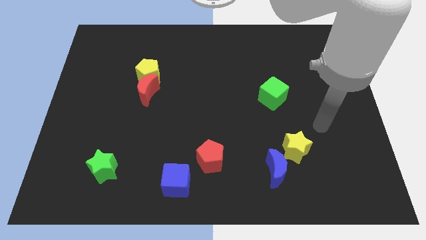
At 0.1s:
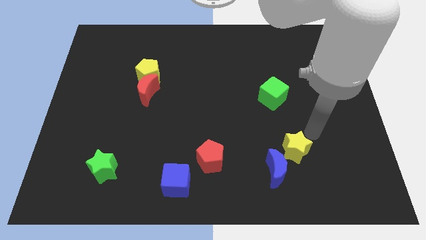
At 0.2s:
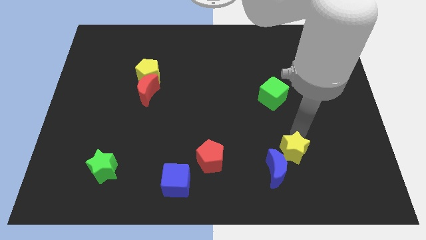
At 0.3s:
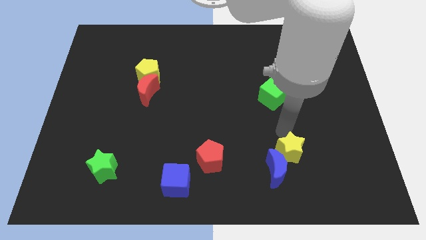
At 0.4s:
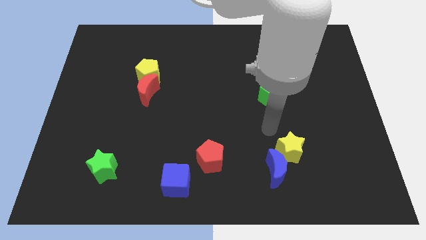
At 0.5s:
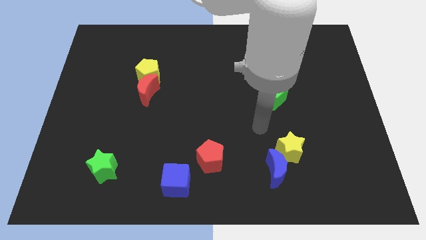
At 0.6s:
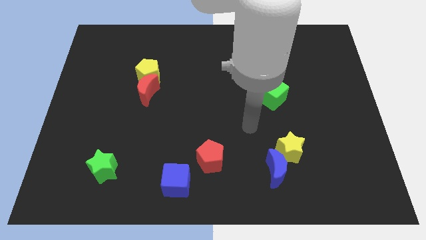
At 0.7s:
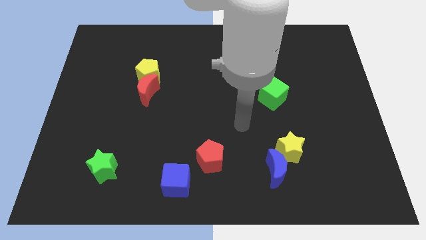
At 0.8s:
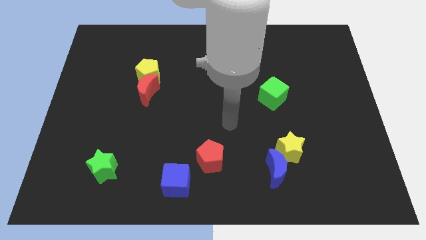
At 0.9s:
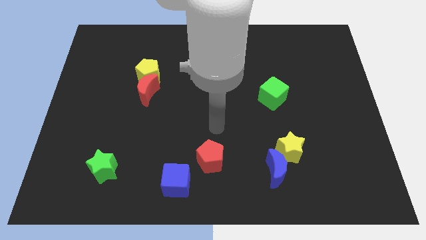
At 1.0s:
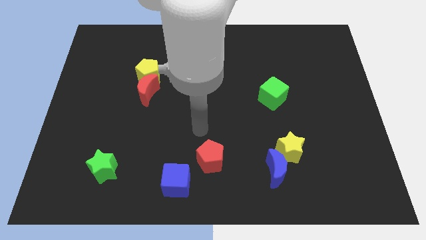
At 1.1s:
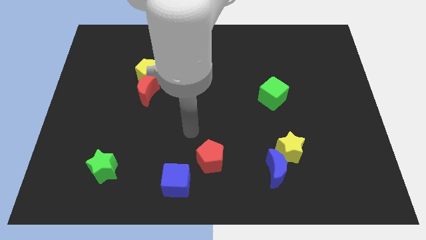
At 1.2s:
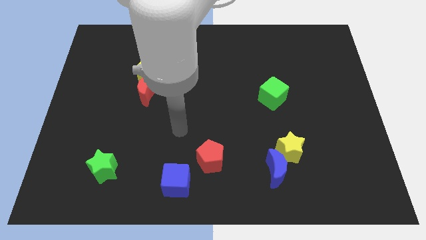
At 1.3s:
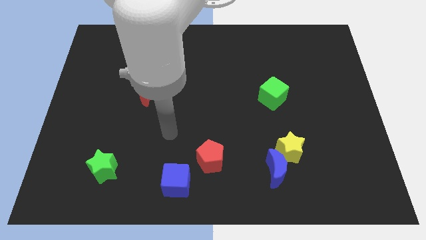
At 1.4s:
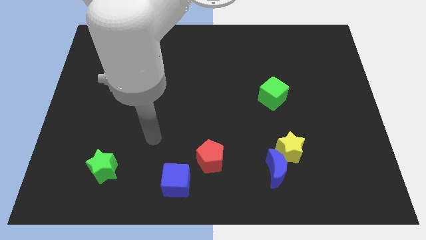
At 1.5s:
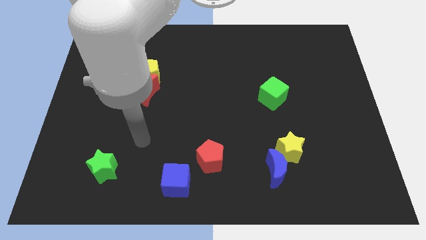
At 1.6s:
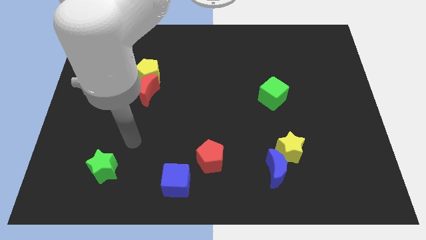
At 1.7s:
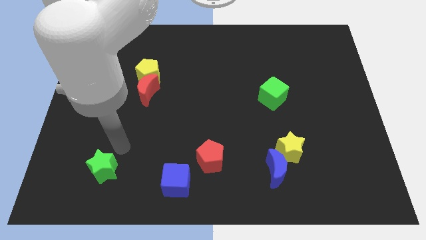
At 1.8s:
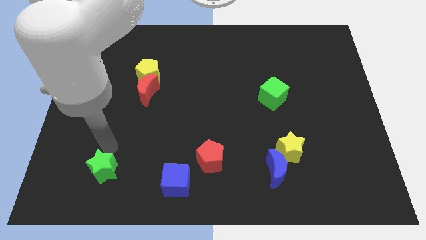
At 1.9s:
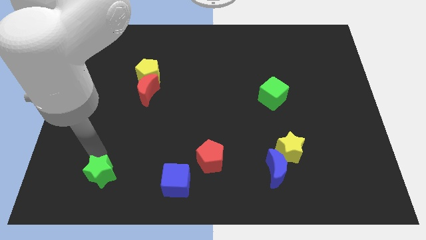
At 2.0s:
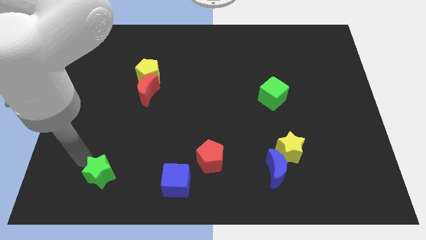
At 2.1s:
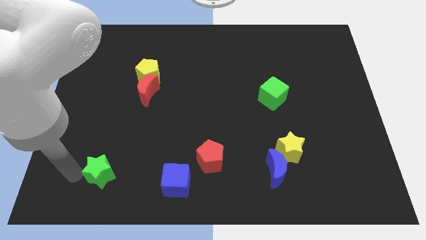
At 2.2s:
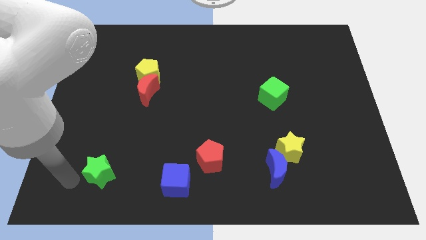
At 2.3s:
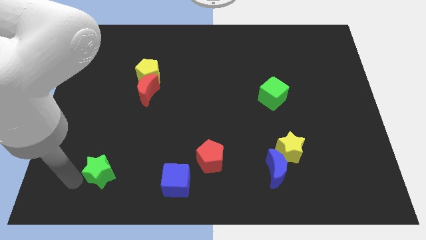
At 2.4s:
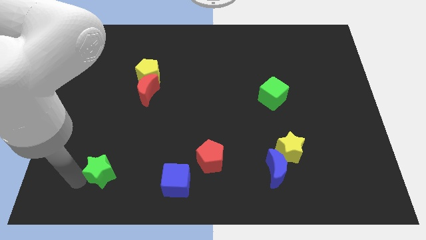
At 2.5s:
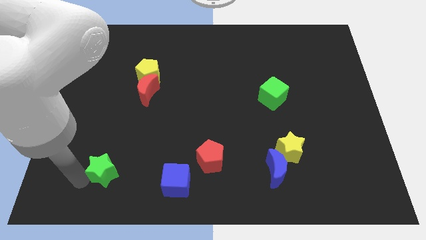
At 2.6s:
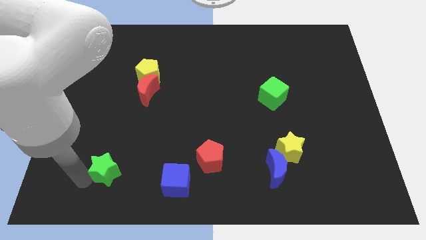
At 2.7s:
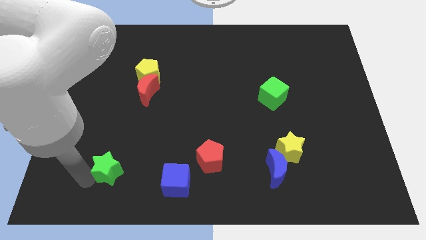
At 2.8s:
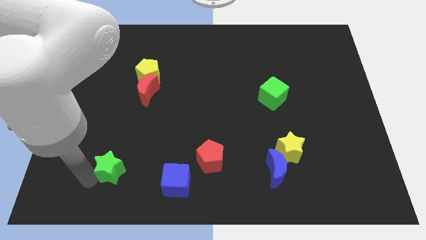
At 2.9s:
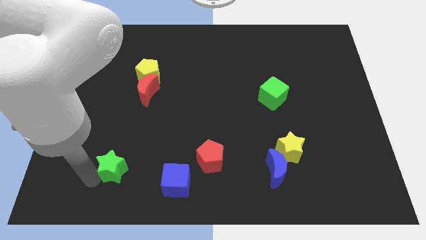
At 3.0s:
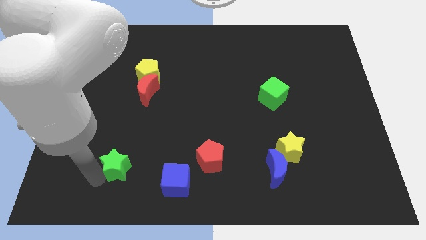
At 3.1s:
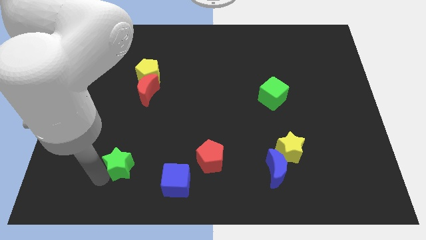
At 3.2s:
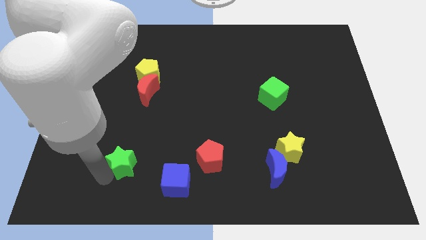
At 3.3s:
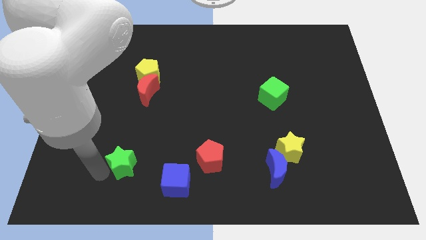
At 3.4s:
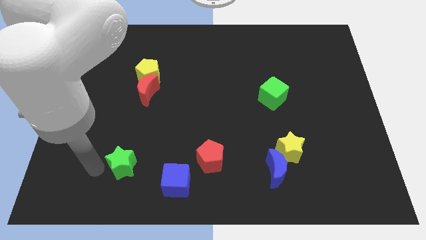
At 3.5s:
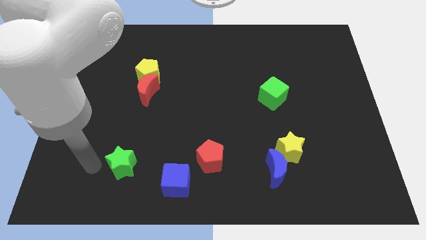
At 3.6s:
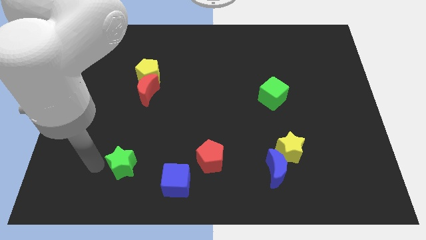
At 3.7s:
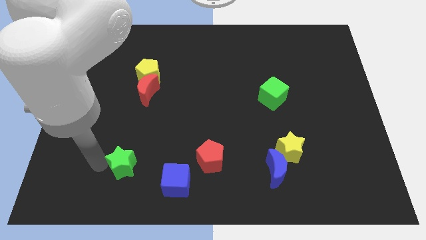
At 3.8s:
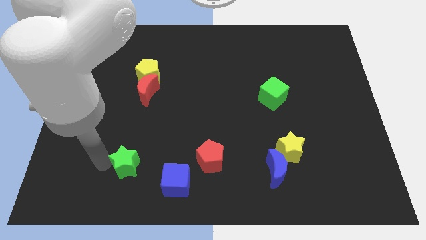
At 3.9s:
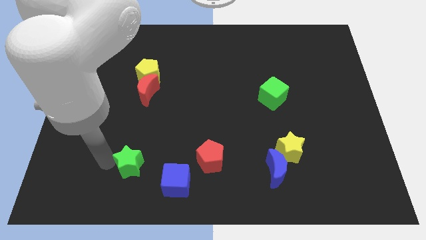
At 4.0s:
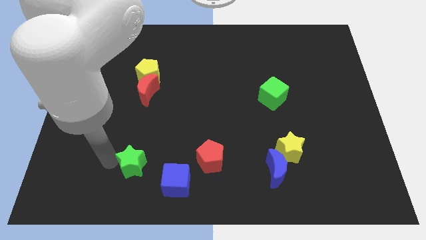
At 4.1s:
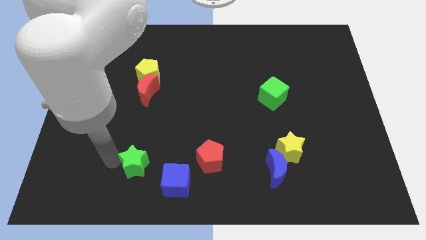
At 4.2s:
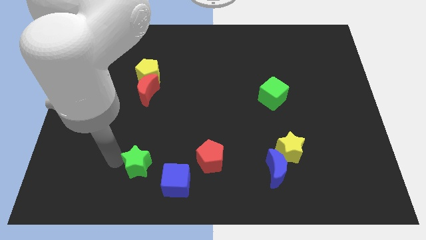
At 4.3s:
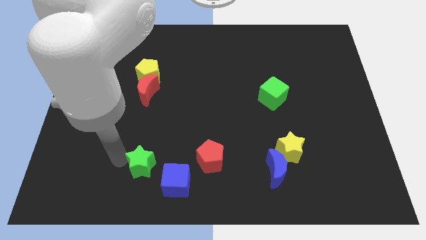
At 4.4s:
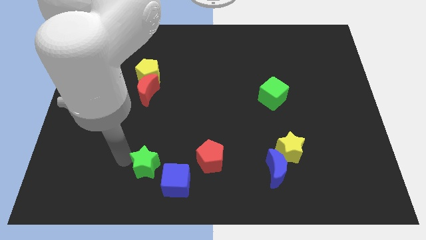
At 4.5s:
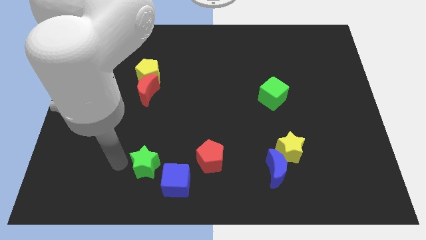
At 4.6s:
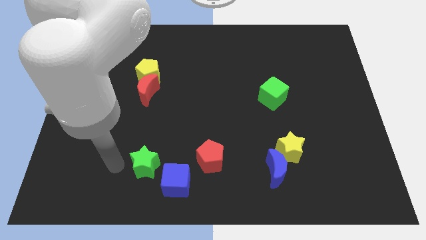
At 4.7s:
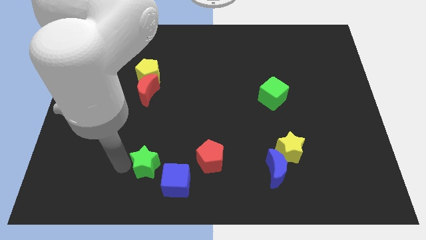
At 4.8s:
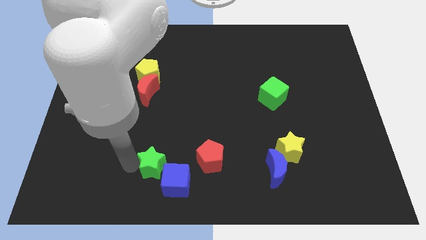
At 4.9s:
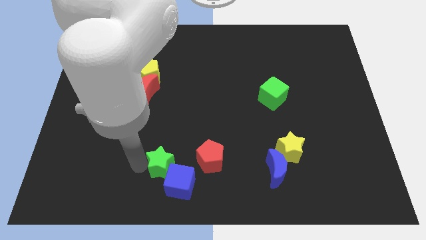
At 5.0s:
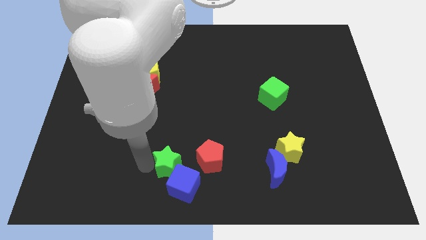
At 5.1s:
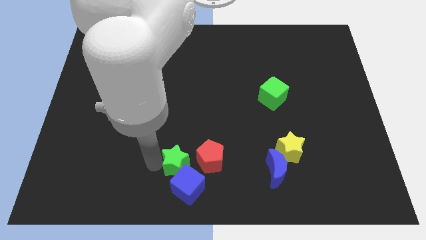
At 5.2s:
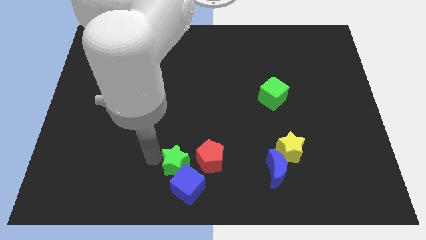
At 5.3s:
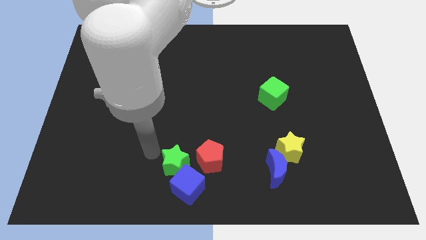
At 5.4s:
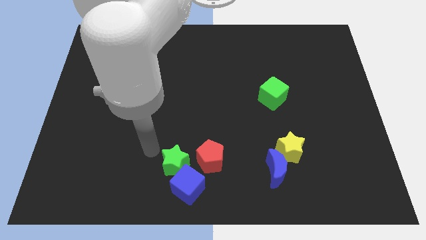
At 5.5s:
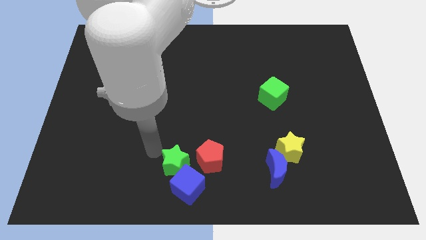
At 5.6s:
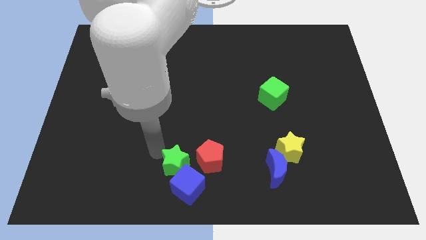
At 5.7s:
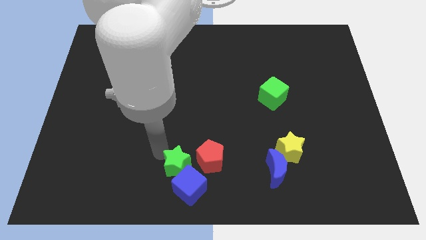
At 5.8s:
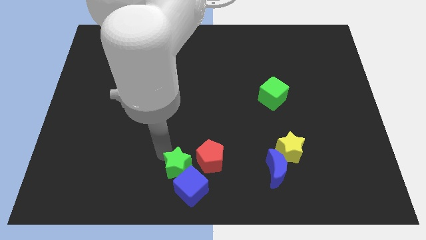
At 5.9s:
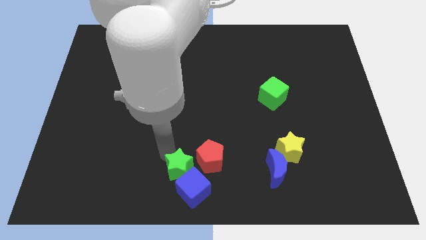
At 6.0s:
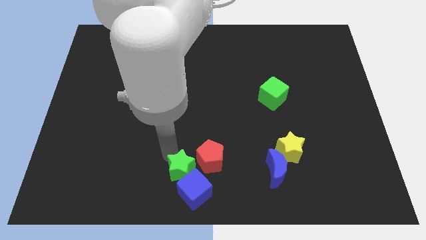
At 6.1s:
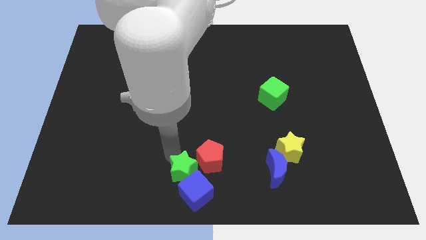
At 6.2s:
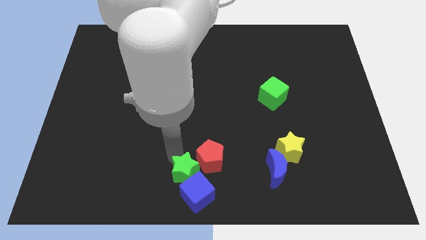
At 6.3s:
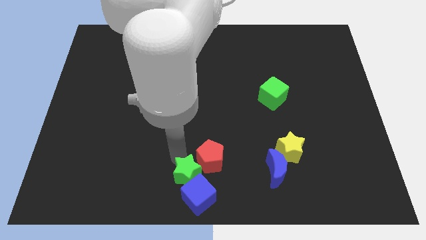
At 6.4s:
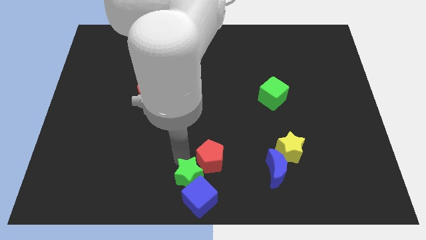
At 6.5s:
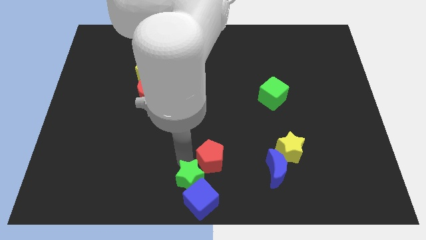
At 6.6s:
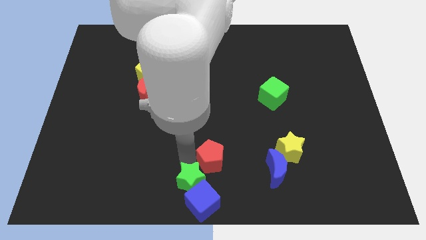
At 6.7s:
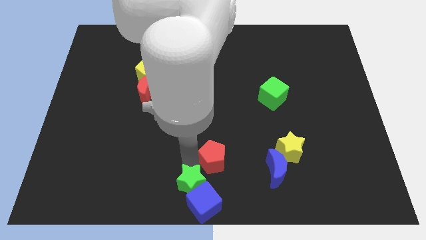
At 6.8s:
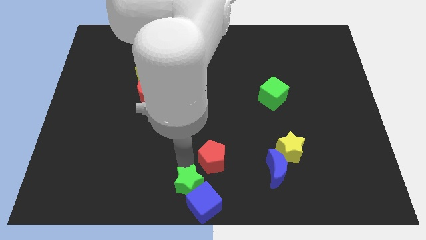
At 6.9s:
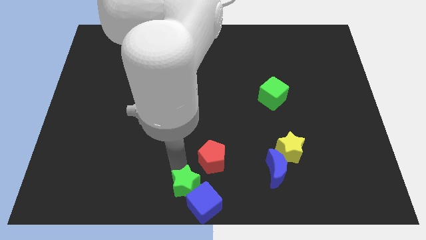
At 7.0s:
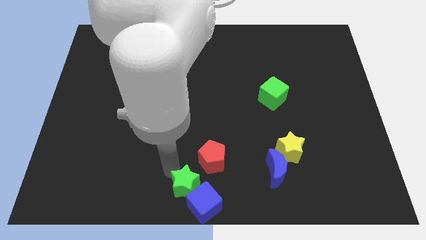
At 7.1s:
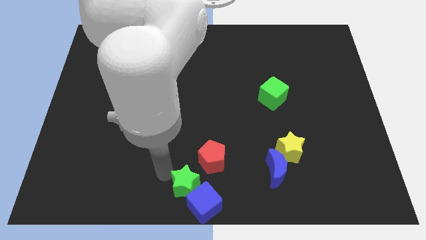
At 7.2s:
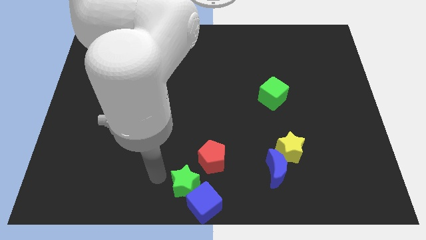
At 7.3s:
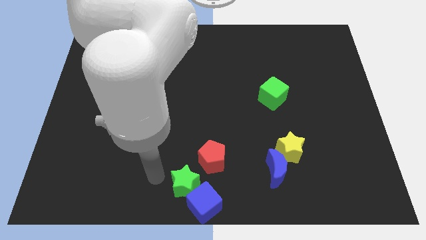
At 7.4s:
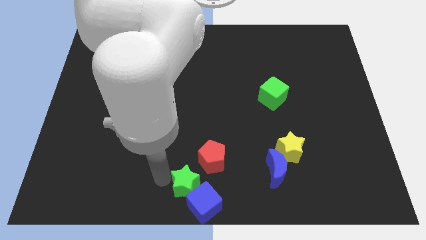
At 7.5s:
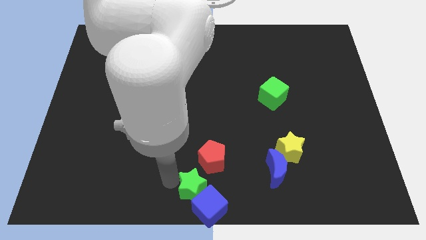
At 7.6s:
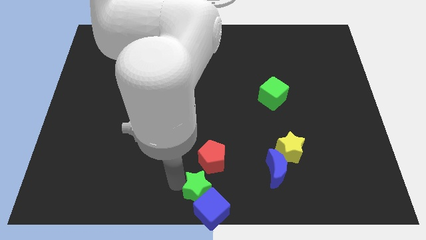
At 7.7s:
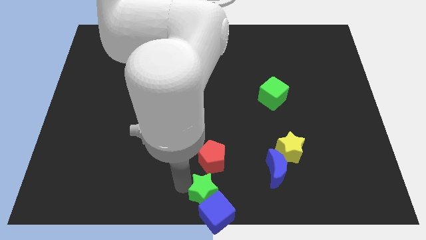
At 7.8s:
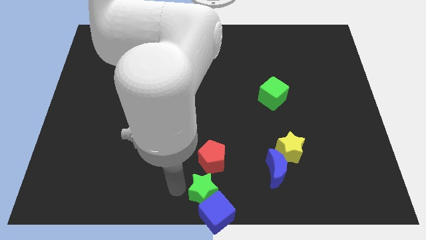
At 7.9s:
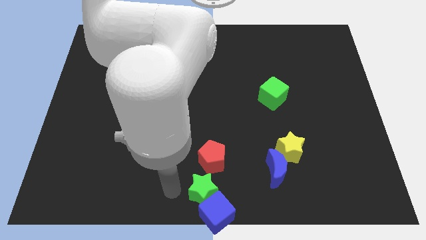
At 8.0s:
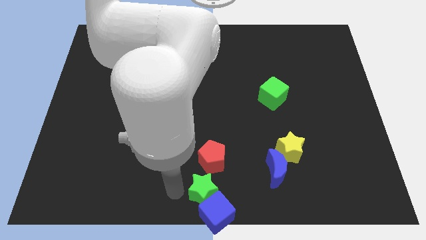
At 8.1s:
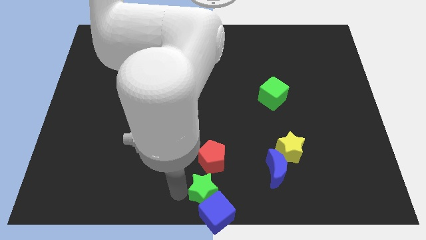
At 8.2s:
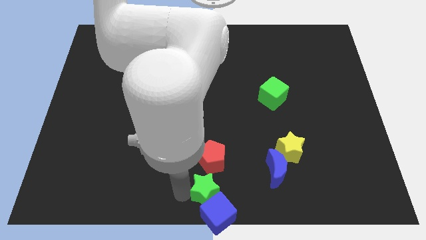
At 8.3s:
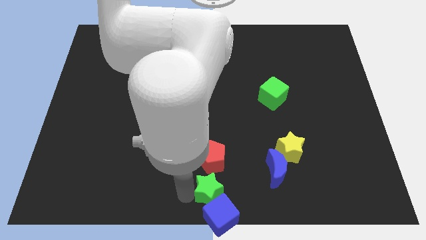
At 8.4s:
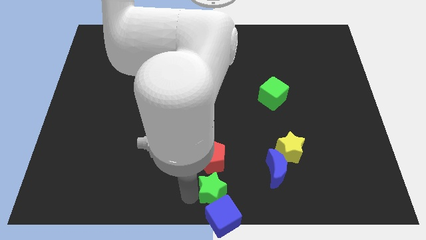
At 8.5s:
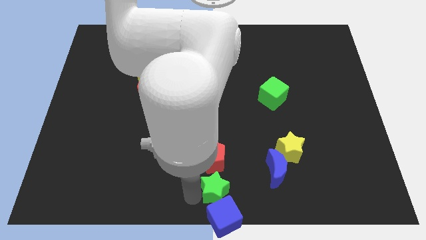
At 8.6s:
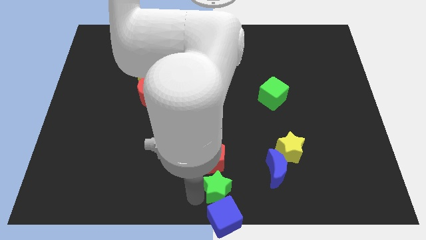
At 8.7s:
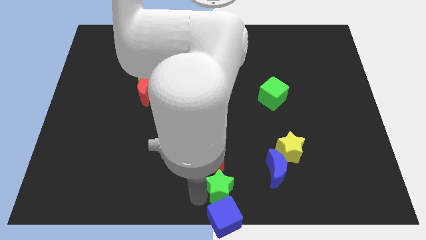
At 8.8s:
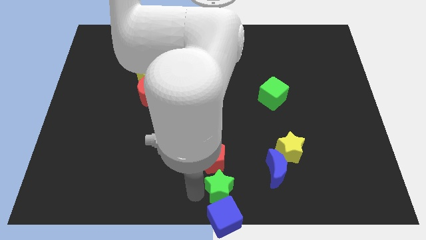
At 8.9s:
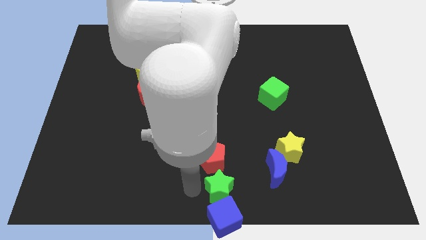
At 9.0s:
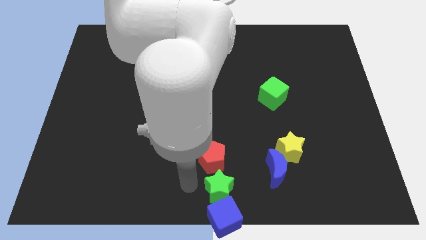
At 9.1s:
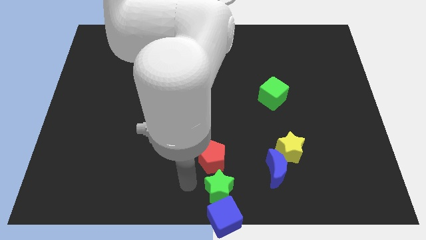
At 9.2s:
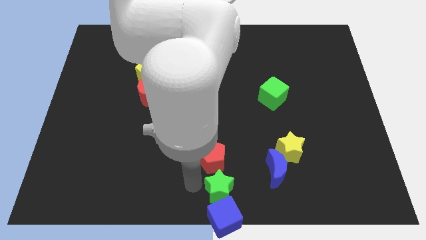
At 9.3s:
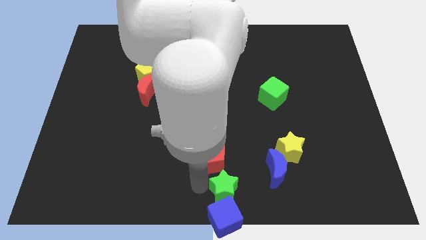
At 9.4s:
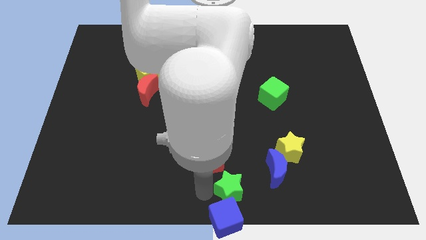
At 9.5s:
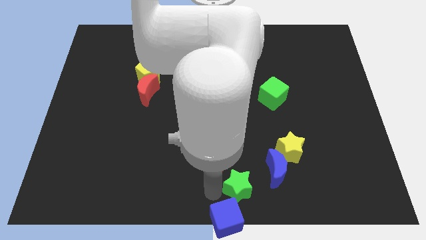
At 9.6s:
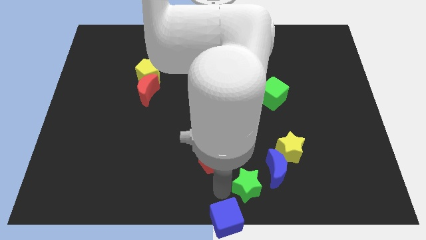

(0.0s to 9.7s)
move the green star diagonally down and to the left of the yellow star
